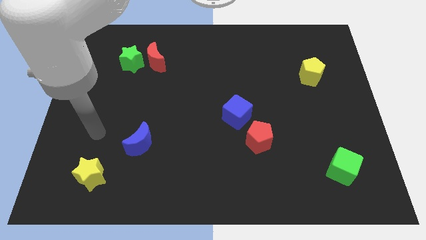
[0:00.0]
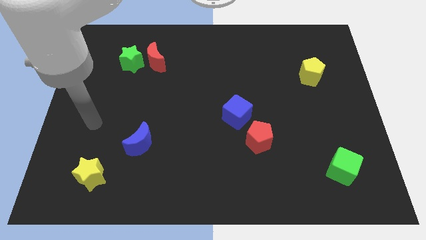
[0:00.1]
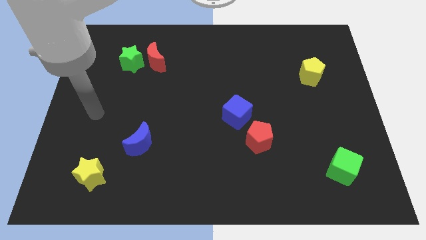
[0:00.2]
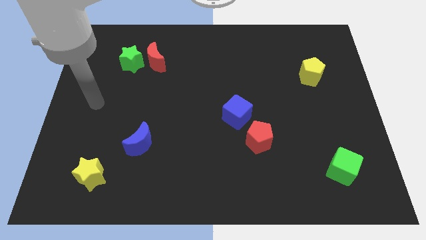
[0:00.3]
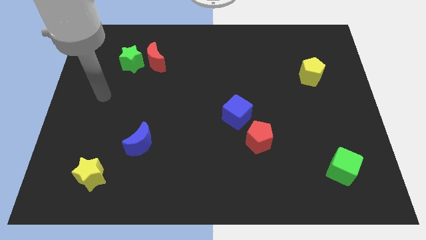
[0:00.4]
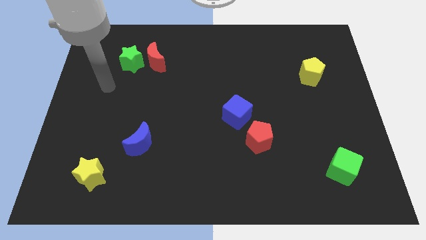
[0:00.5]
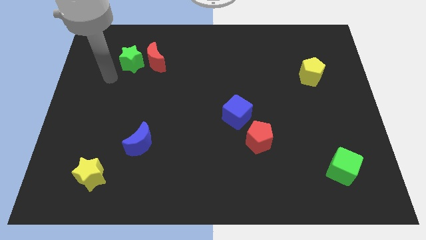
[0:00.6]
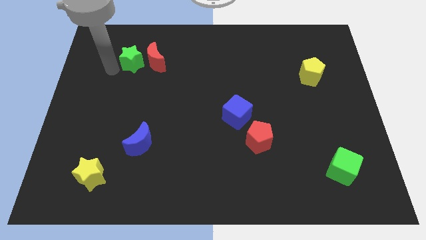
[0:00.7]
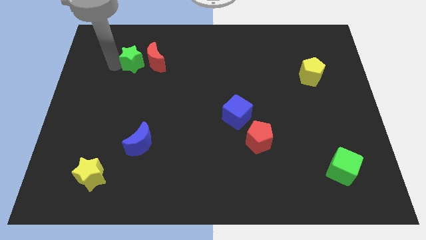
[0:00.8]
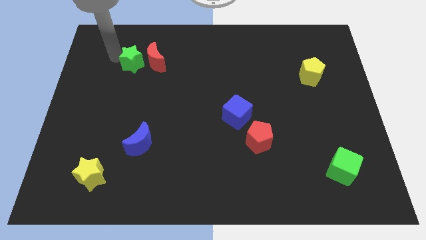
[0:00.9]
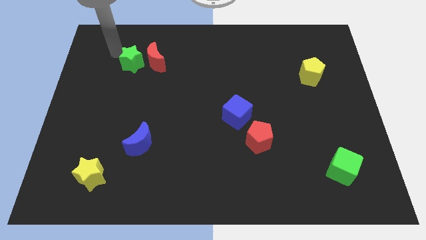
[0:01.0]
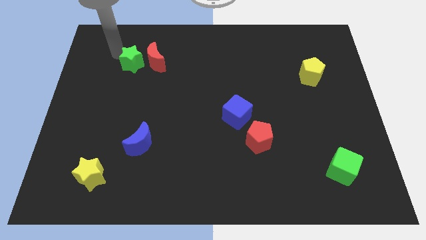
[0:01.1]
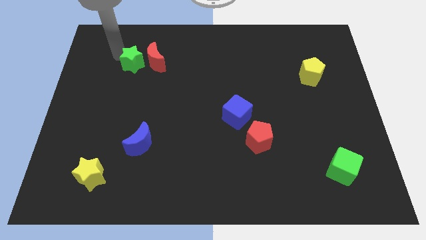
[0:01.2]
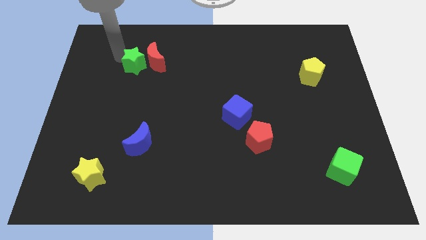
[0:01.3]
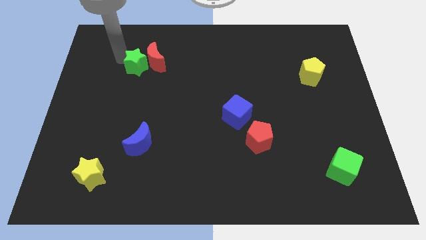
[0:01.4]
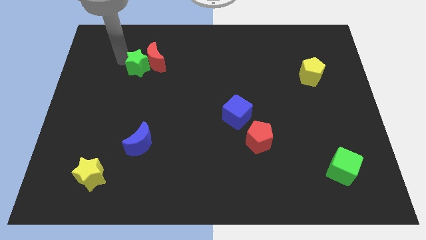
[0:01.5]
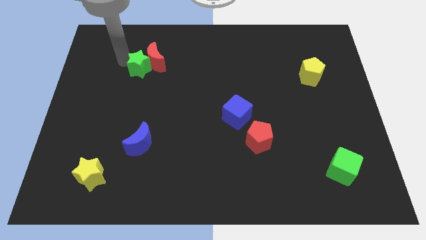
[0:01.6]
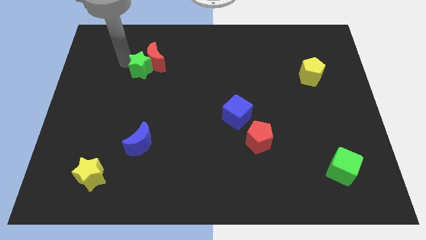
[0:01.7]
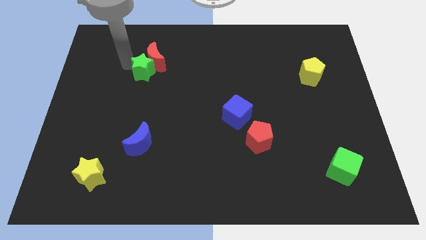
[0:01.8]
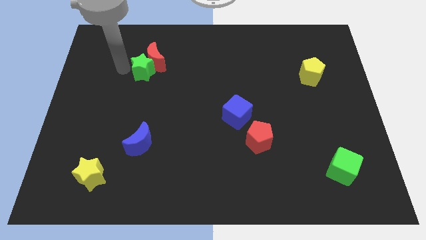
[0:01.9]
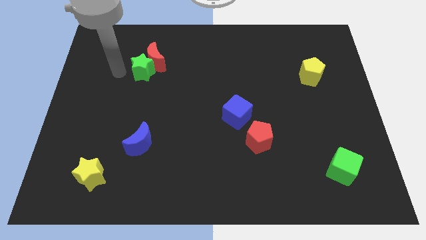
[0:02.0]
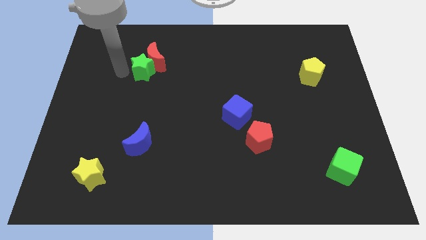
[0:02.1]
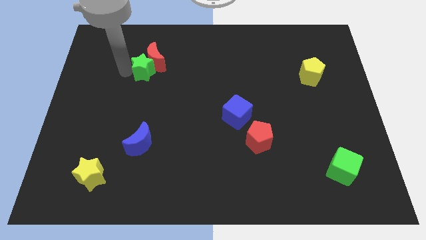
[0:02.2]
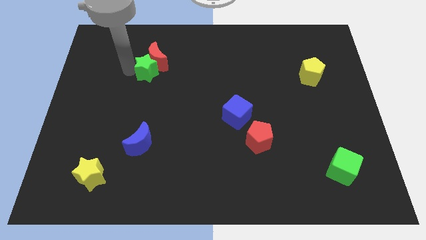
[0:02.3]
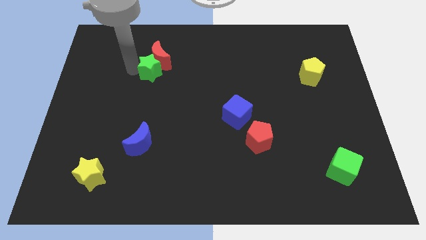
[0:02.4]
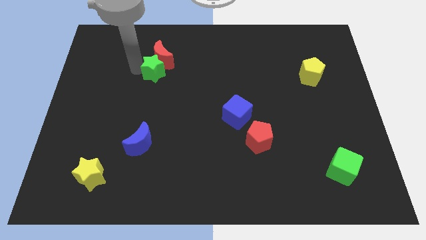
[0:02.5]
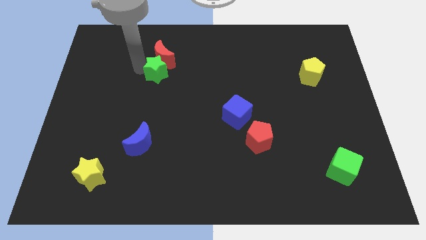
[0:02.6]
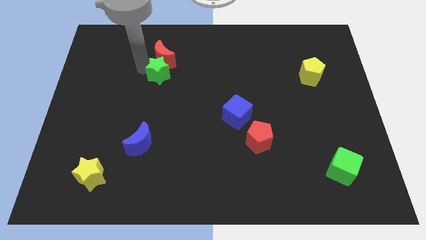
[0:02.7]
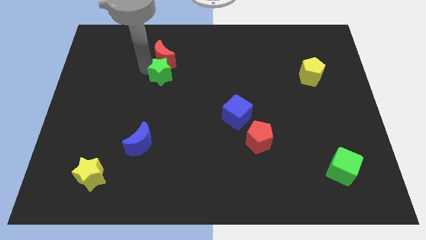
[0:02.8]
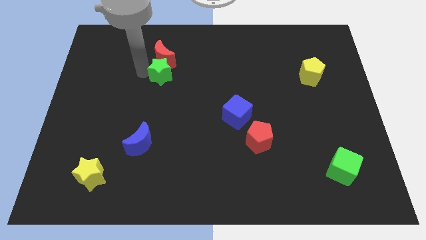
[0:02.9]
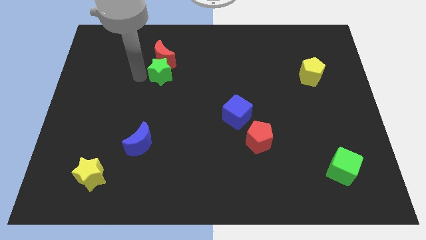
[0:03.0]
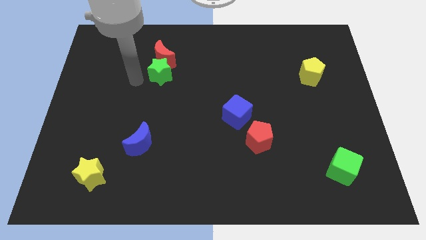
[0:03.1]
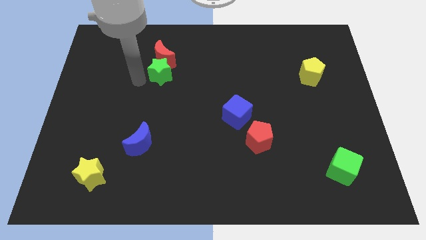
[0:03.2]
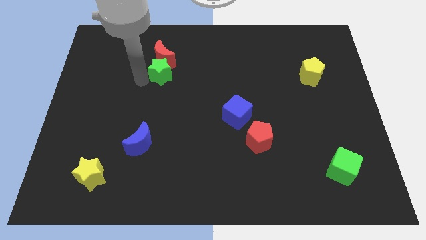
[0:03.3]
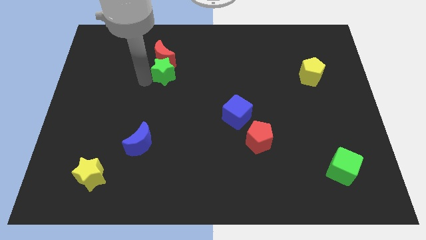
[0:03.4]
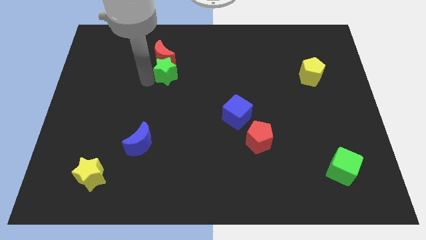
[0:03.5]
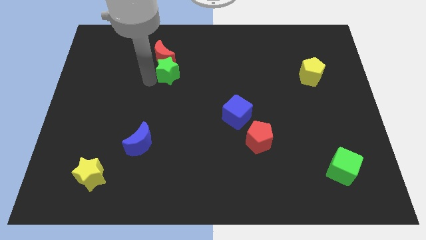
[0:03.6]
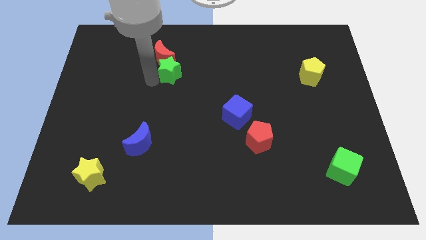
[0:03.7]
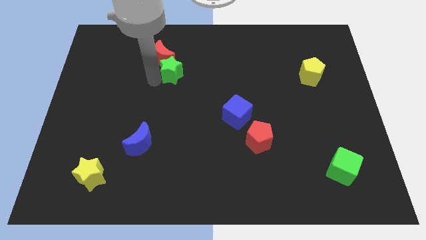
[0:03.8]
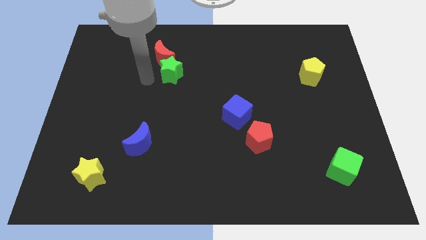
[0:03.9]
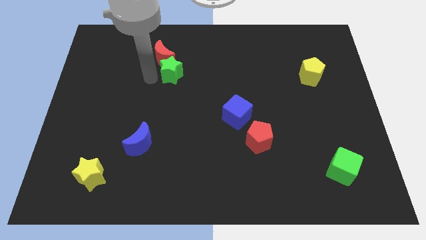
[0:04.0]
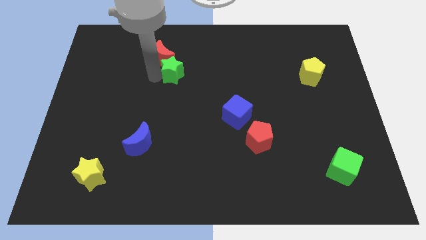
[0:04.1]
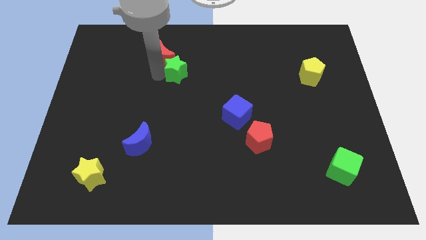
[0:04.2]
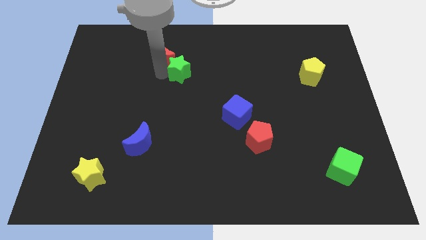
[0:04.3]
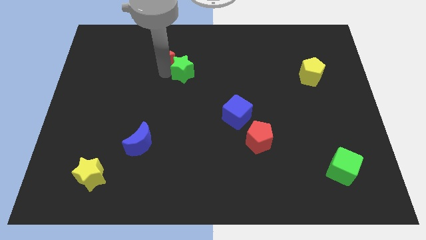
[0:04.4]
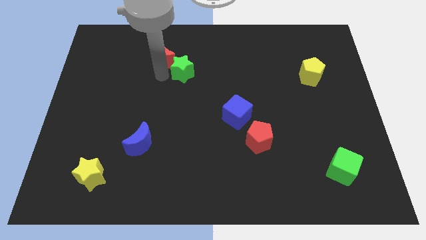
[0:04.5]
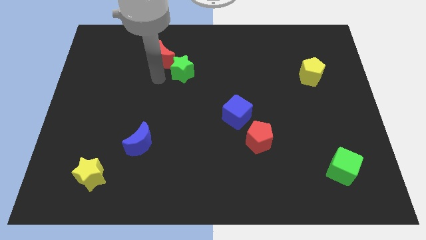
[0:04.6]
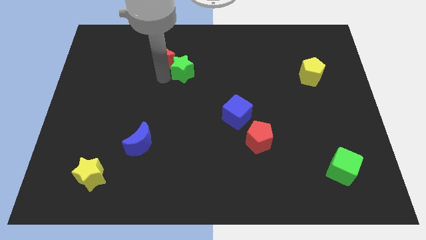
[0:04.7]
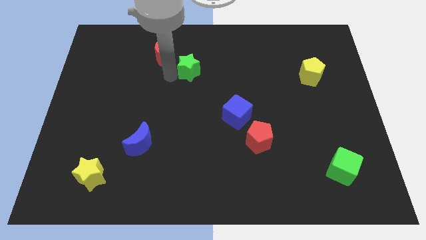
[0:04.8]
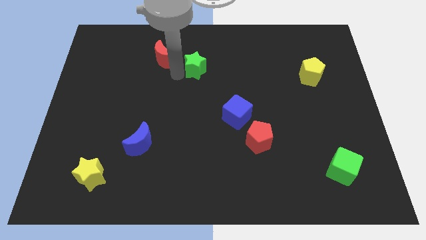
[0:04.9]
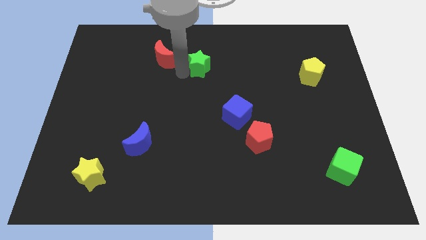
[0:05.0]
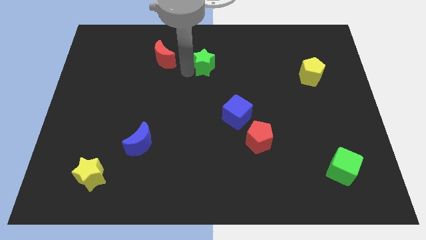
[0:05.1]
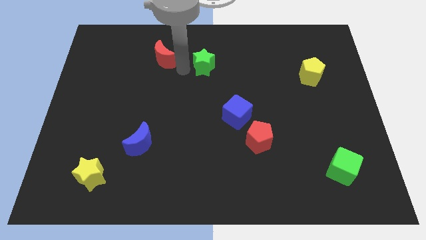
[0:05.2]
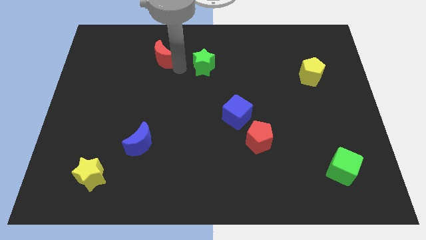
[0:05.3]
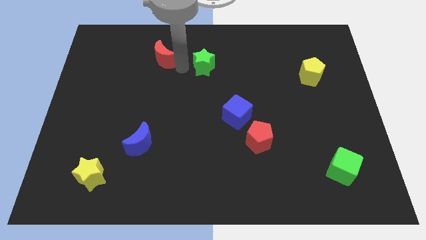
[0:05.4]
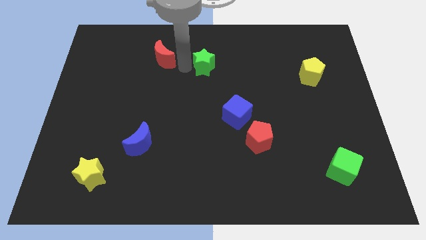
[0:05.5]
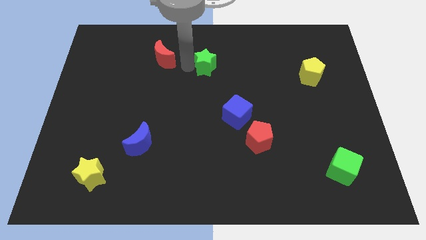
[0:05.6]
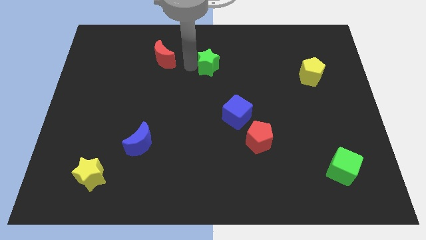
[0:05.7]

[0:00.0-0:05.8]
push the green star to the right

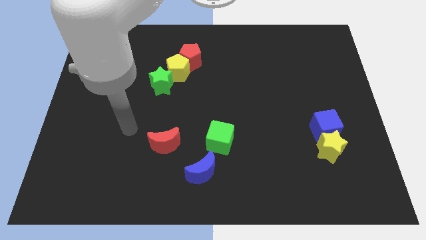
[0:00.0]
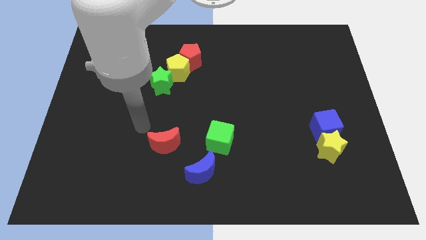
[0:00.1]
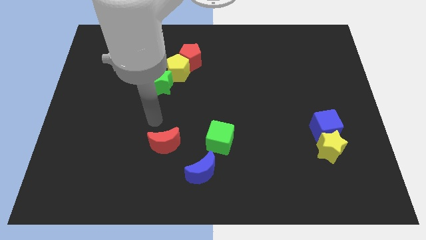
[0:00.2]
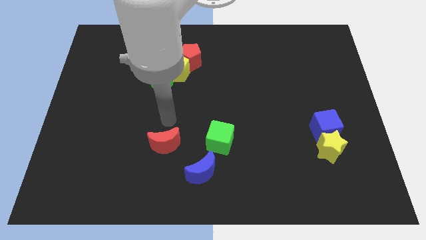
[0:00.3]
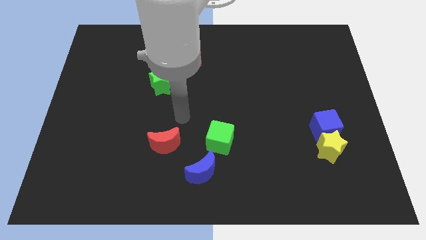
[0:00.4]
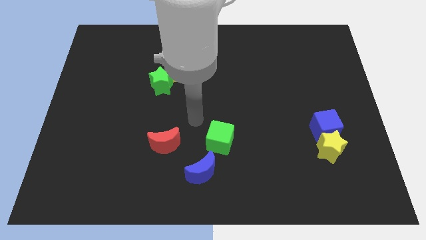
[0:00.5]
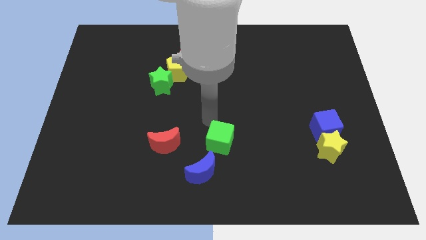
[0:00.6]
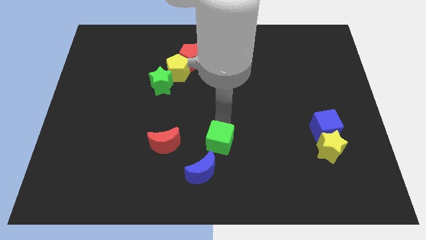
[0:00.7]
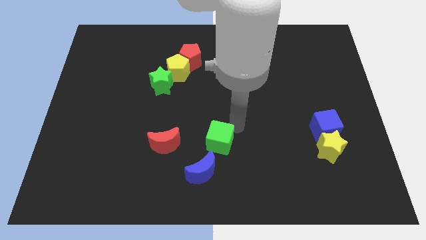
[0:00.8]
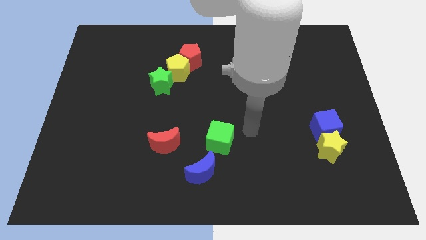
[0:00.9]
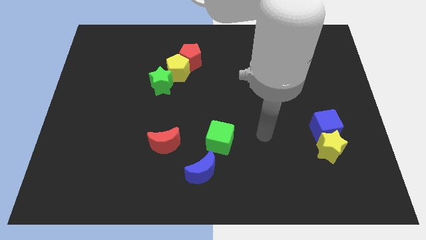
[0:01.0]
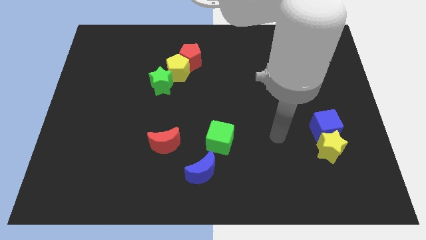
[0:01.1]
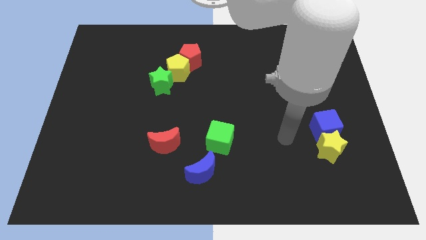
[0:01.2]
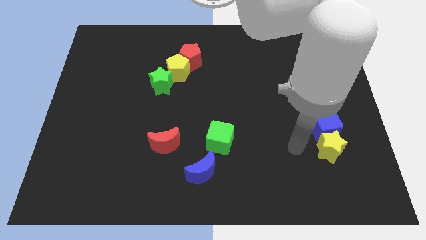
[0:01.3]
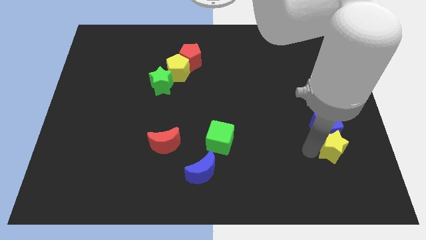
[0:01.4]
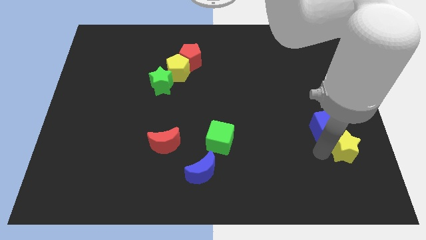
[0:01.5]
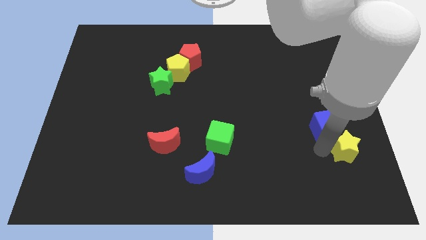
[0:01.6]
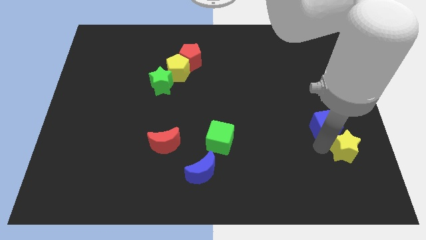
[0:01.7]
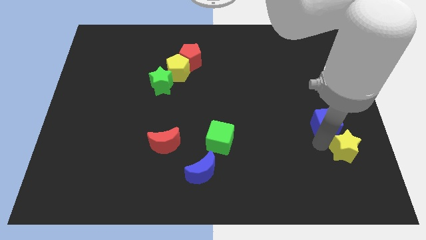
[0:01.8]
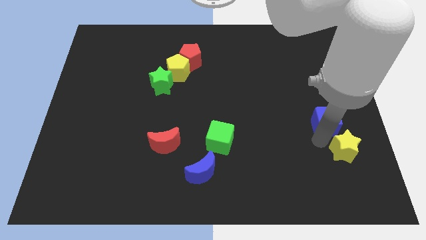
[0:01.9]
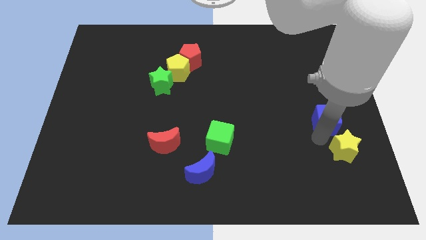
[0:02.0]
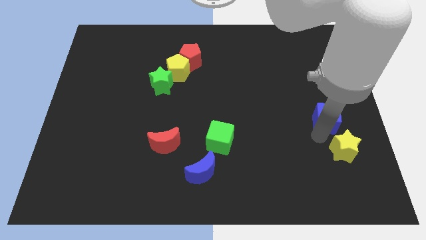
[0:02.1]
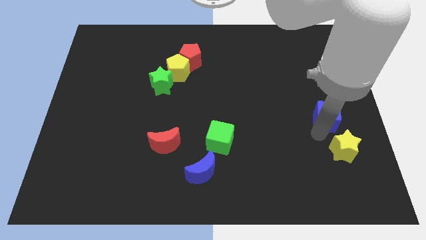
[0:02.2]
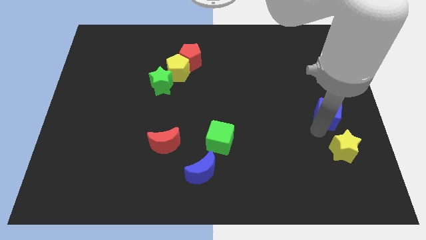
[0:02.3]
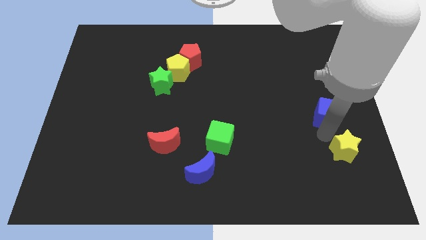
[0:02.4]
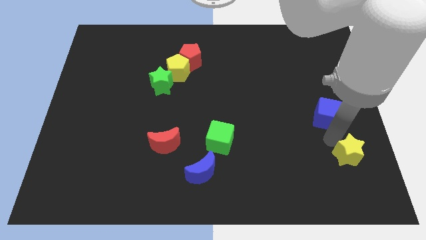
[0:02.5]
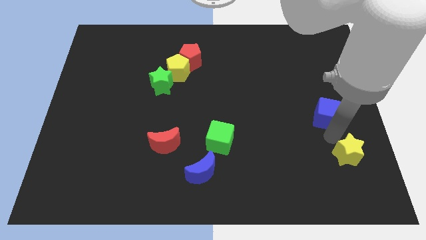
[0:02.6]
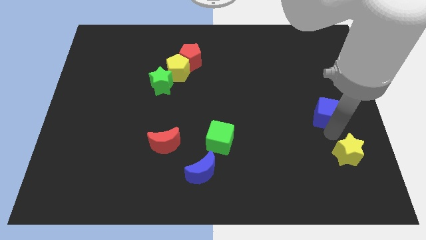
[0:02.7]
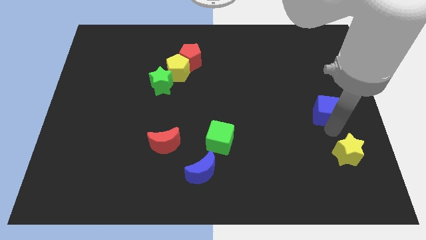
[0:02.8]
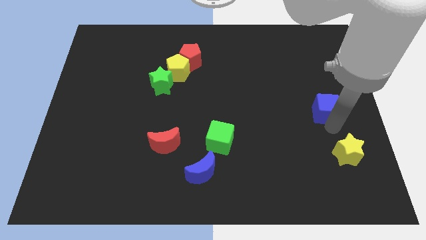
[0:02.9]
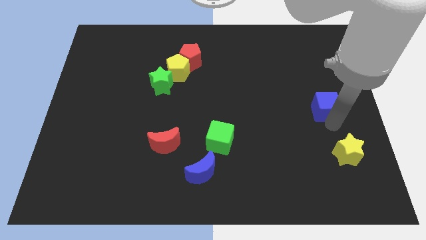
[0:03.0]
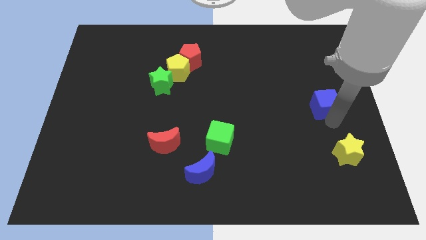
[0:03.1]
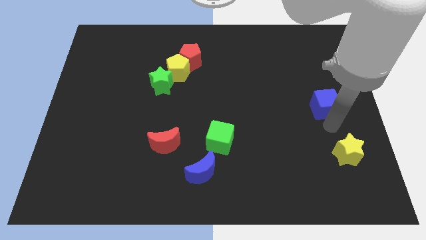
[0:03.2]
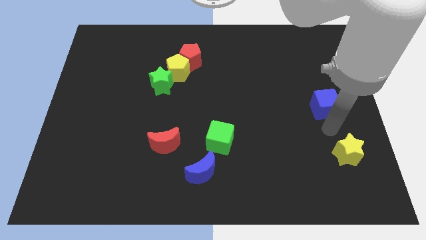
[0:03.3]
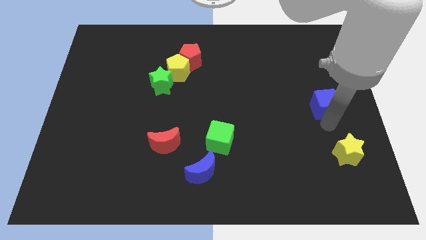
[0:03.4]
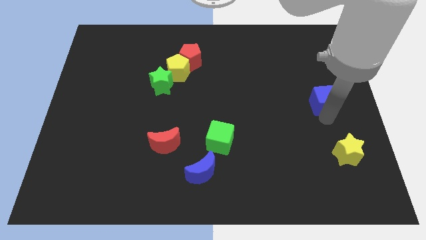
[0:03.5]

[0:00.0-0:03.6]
slightly slide the blue cube upwards
